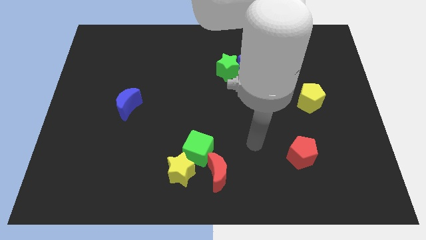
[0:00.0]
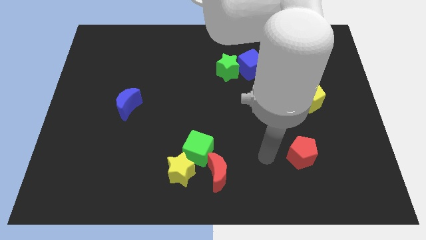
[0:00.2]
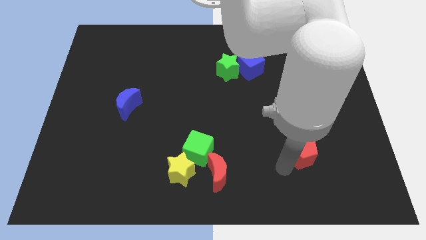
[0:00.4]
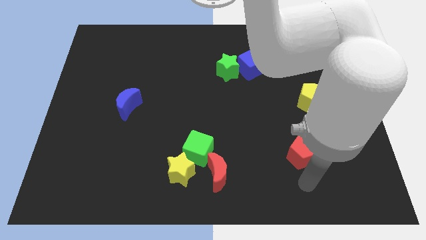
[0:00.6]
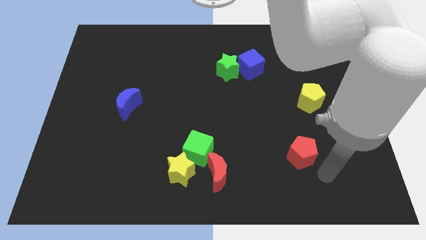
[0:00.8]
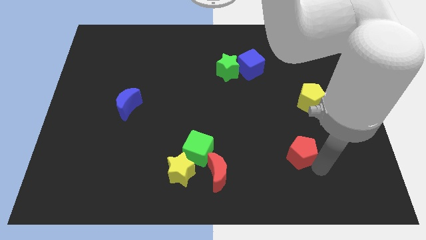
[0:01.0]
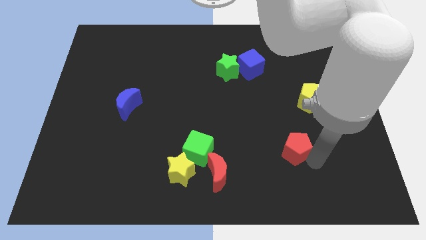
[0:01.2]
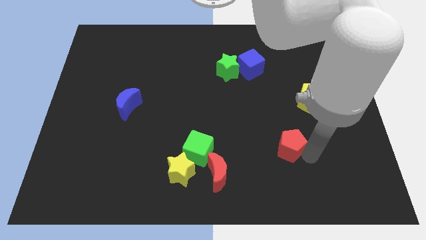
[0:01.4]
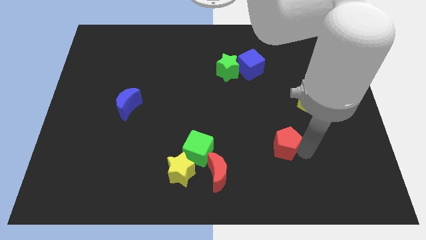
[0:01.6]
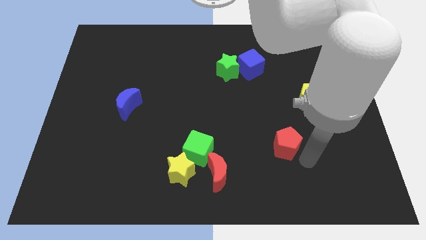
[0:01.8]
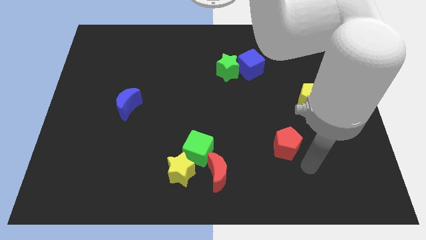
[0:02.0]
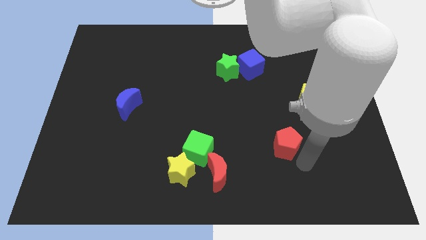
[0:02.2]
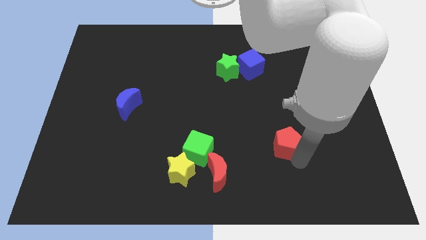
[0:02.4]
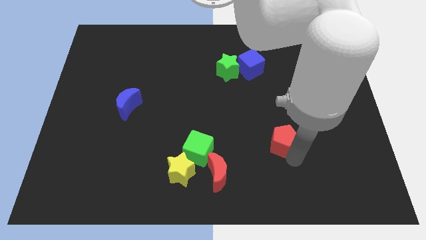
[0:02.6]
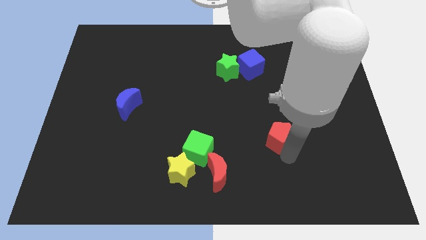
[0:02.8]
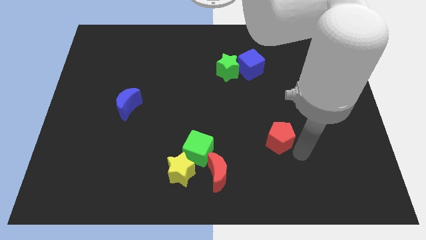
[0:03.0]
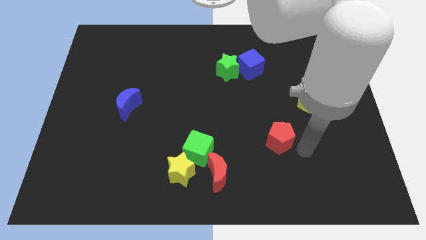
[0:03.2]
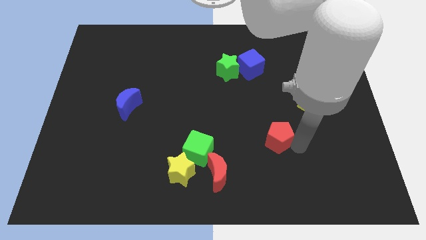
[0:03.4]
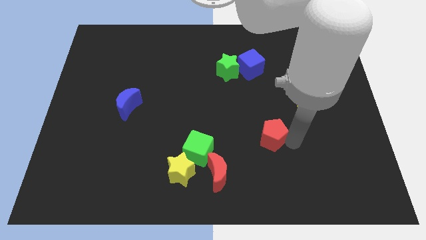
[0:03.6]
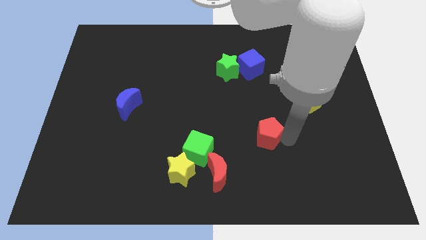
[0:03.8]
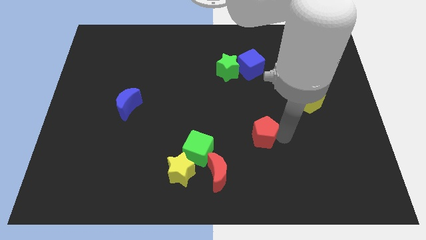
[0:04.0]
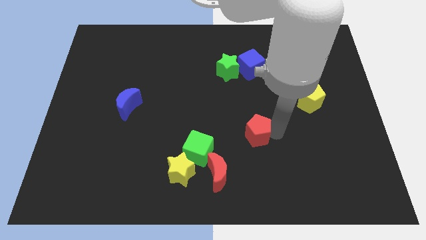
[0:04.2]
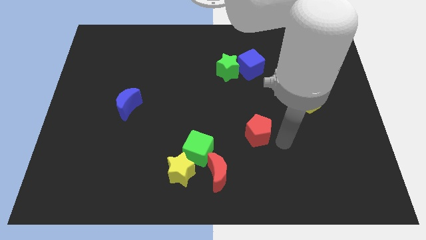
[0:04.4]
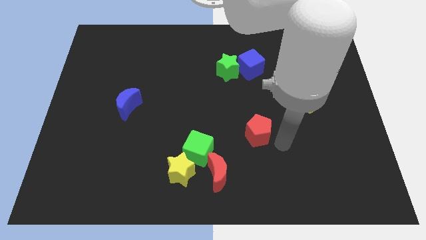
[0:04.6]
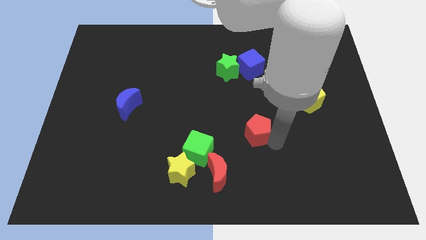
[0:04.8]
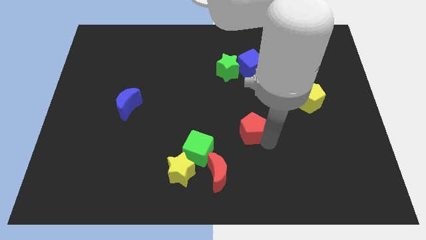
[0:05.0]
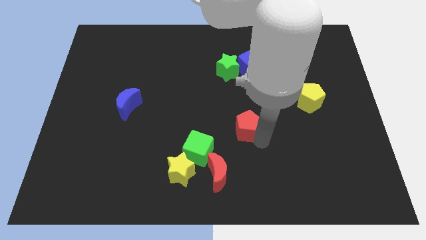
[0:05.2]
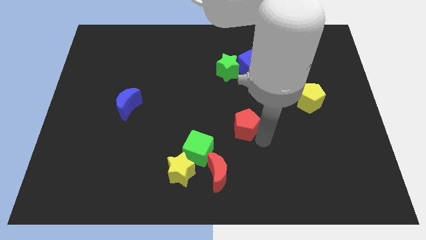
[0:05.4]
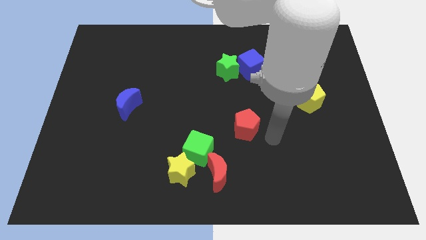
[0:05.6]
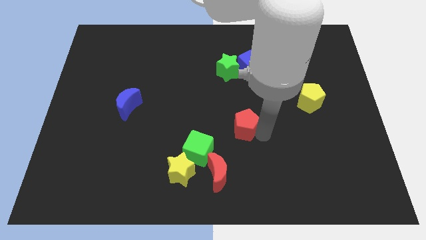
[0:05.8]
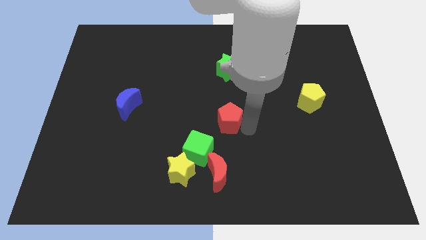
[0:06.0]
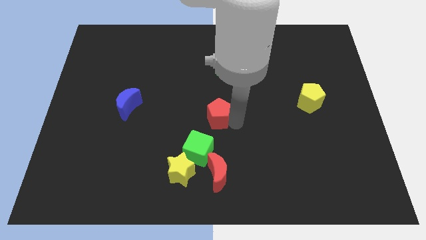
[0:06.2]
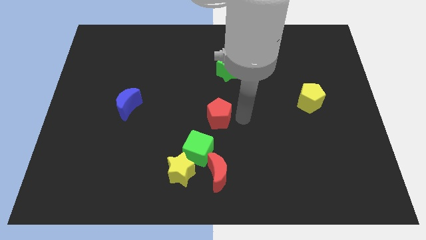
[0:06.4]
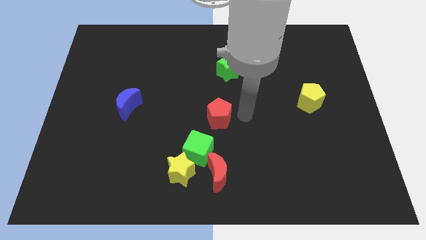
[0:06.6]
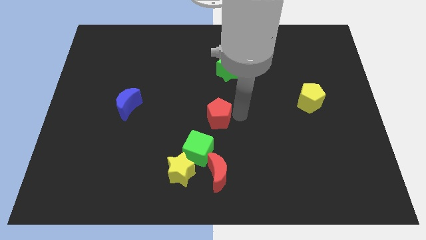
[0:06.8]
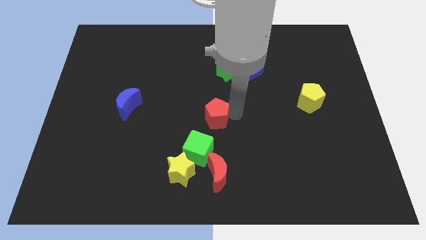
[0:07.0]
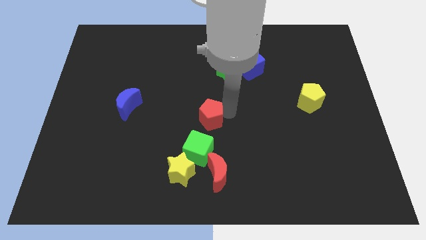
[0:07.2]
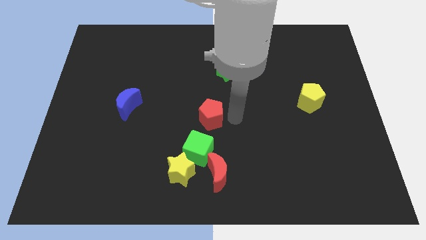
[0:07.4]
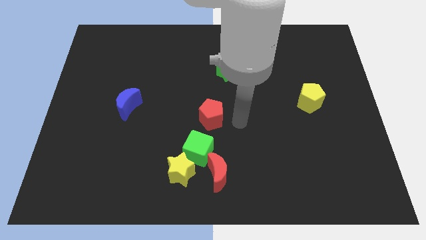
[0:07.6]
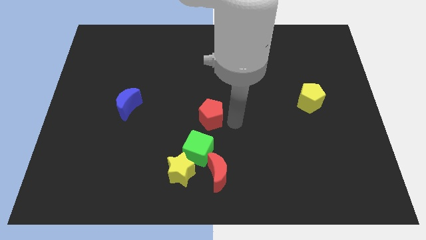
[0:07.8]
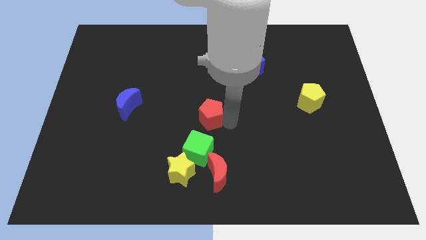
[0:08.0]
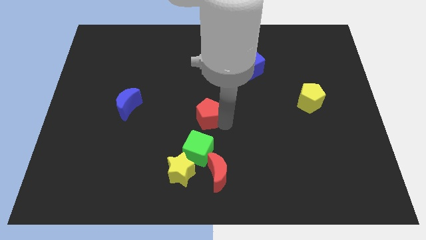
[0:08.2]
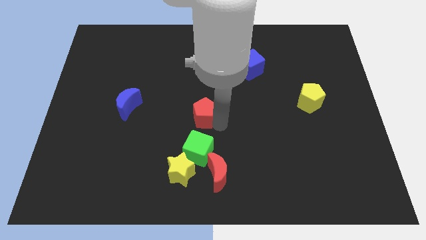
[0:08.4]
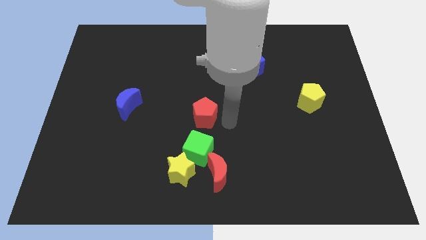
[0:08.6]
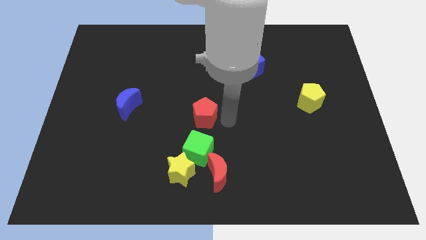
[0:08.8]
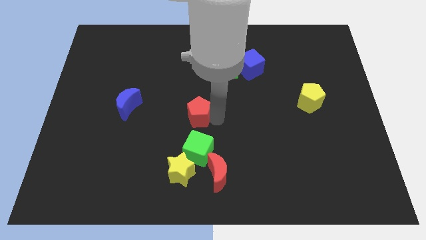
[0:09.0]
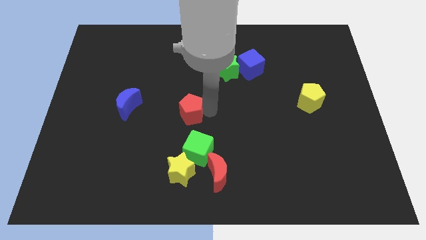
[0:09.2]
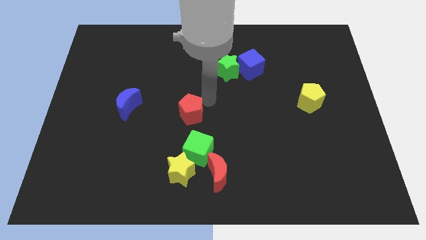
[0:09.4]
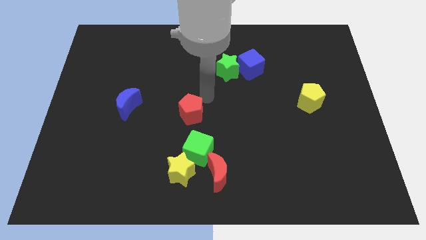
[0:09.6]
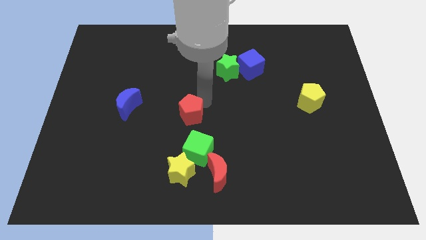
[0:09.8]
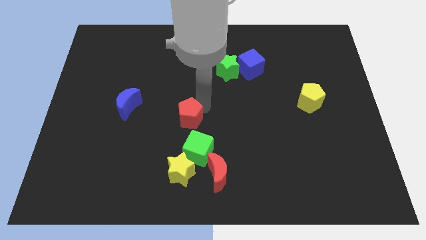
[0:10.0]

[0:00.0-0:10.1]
slide the red pentagon to the top left of the green cube

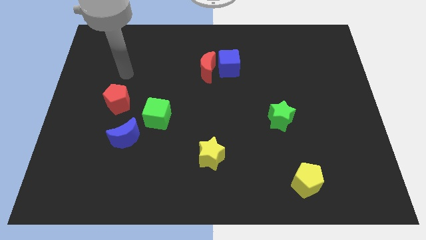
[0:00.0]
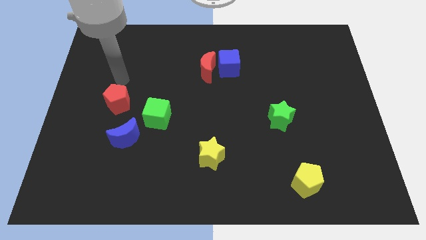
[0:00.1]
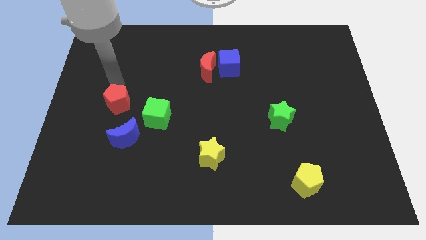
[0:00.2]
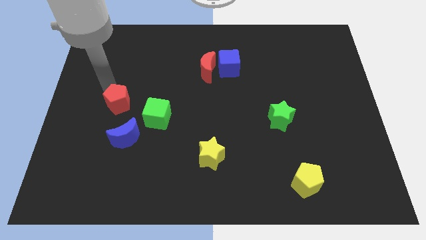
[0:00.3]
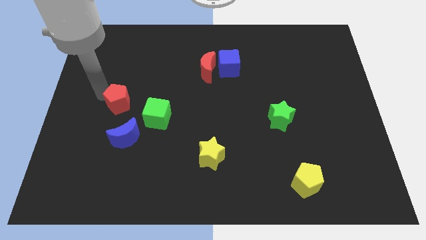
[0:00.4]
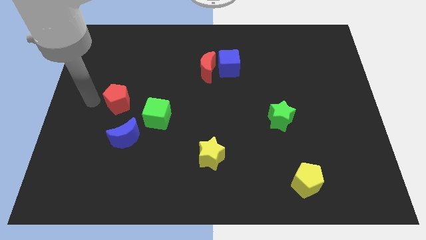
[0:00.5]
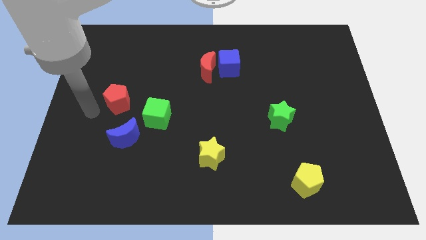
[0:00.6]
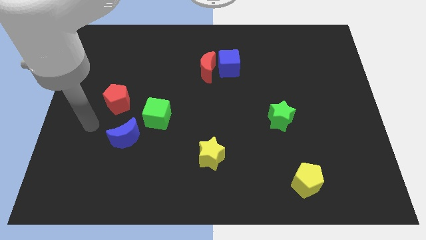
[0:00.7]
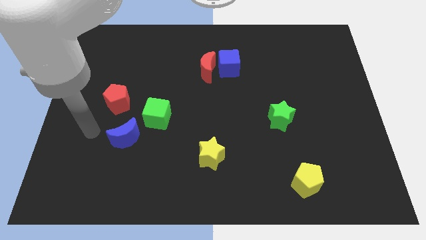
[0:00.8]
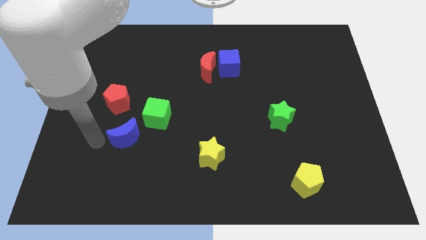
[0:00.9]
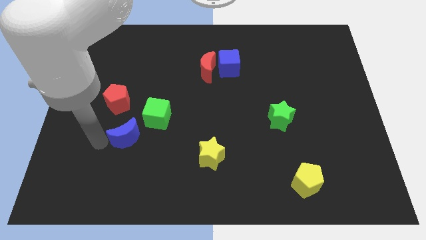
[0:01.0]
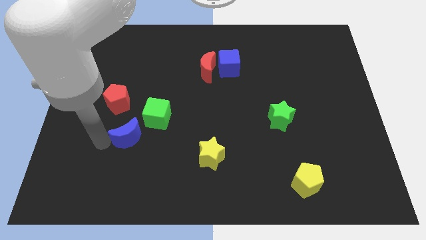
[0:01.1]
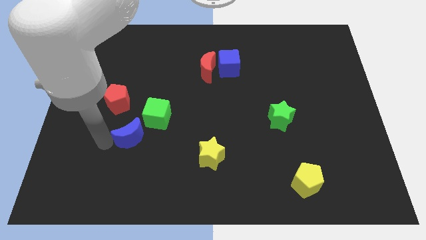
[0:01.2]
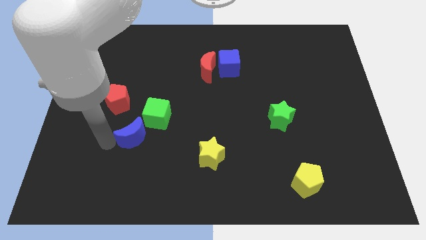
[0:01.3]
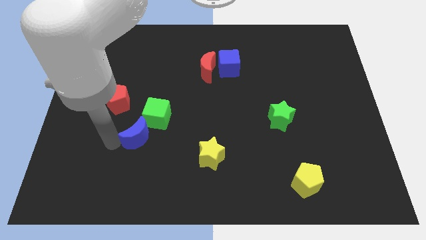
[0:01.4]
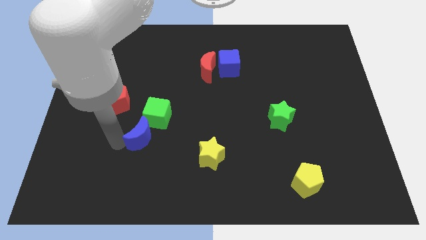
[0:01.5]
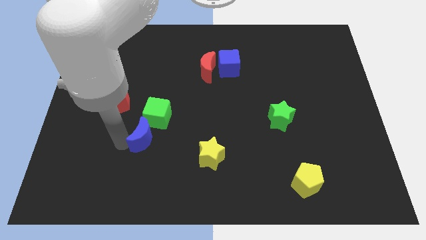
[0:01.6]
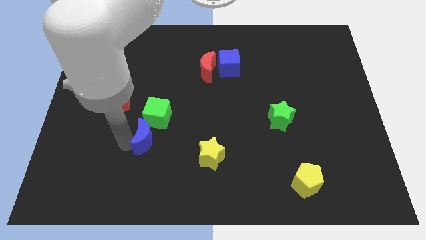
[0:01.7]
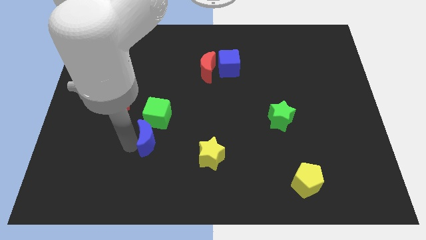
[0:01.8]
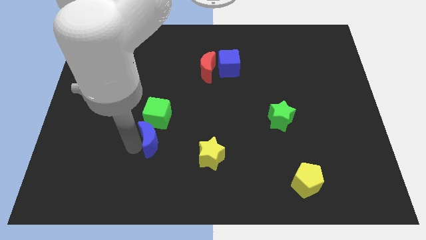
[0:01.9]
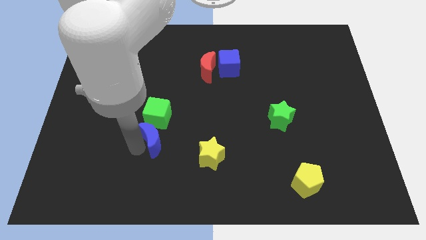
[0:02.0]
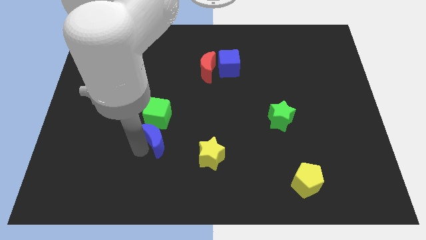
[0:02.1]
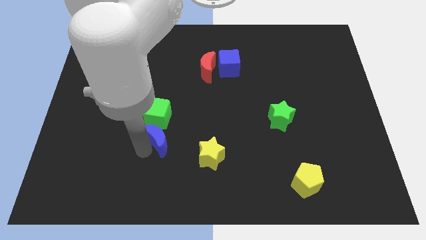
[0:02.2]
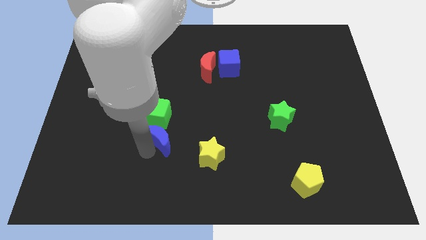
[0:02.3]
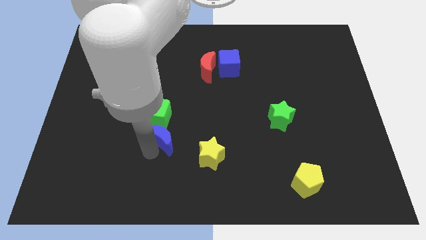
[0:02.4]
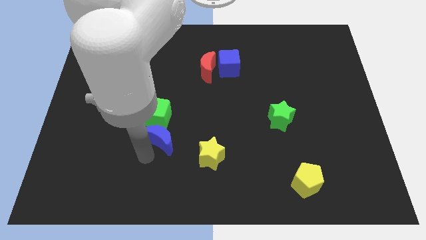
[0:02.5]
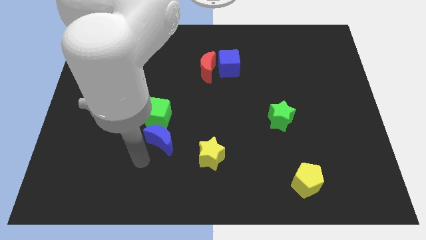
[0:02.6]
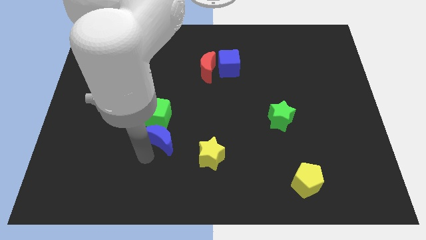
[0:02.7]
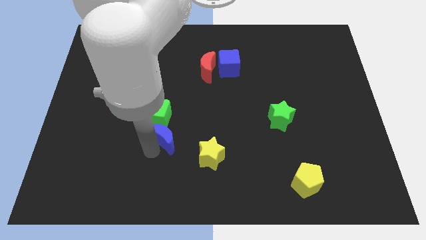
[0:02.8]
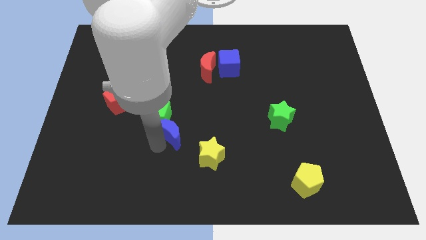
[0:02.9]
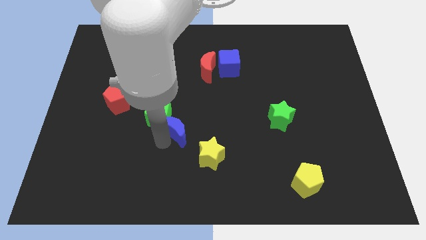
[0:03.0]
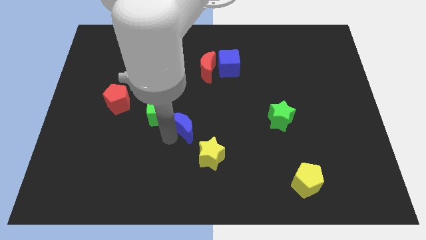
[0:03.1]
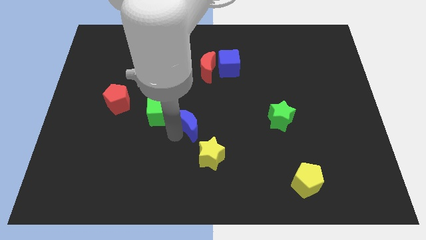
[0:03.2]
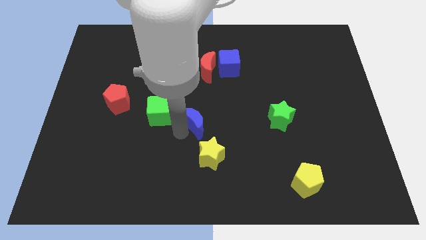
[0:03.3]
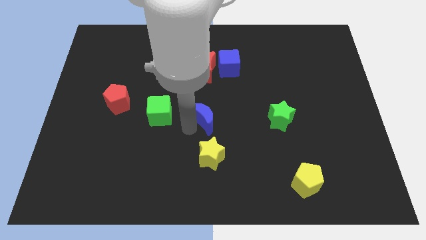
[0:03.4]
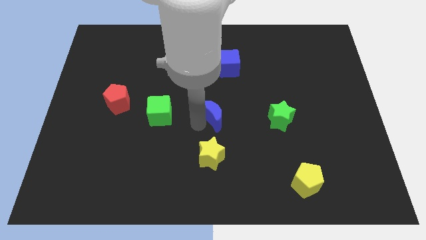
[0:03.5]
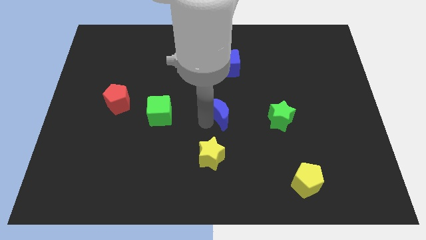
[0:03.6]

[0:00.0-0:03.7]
slide the blue moon below the blue cube
